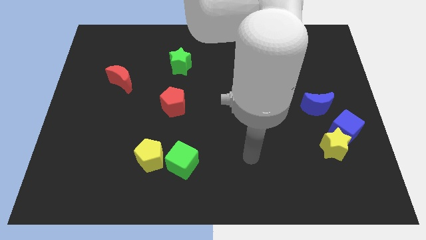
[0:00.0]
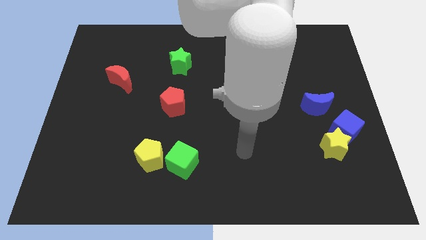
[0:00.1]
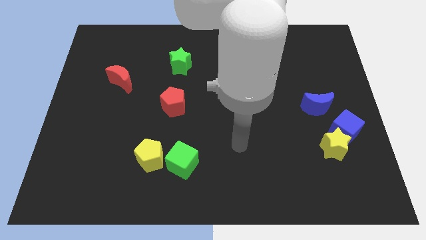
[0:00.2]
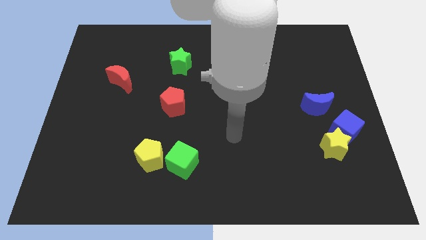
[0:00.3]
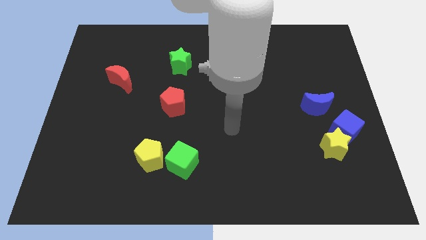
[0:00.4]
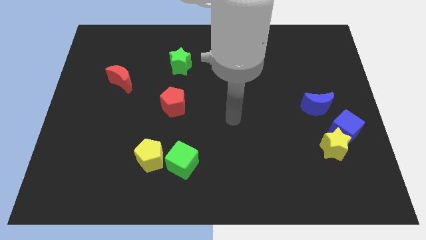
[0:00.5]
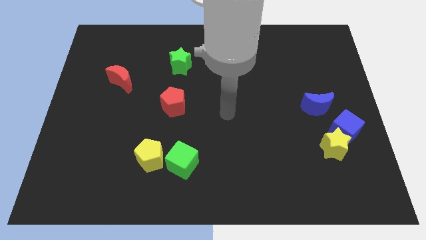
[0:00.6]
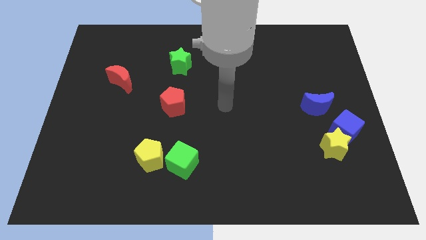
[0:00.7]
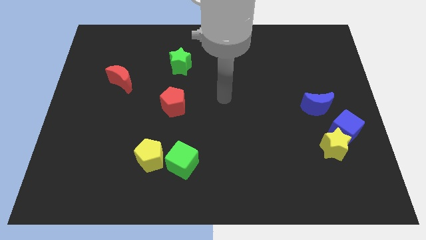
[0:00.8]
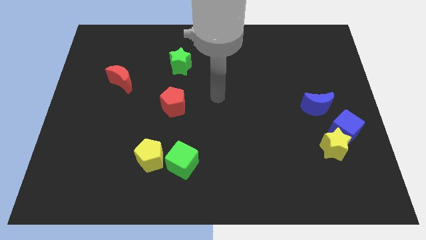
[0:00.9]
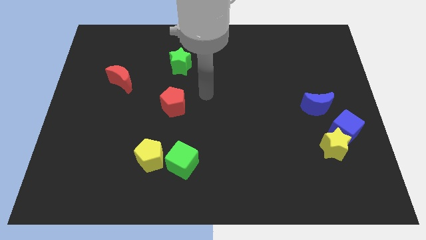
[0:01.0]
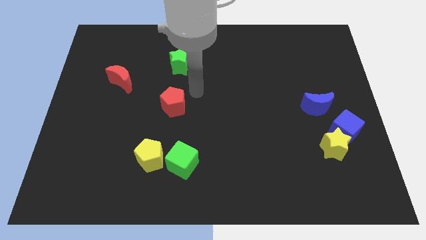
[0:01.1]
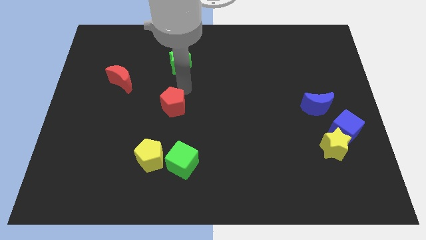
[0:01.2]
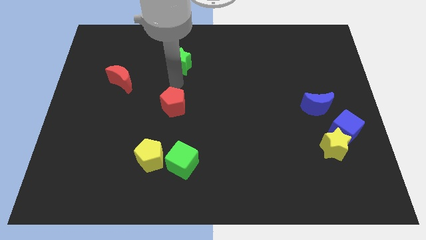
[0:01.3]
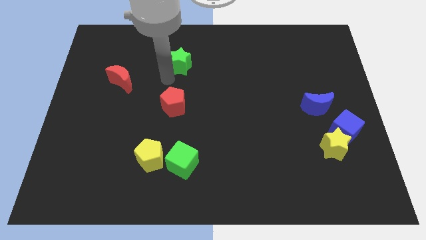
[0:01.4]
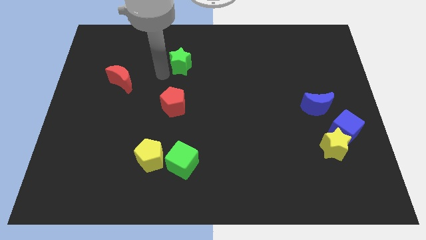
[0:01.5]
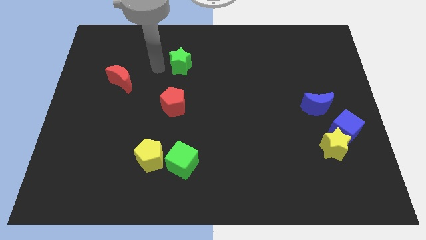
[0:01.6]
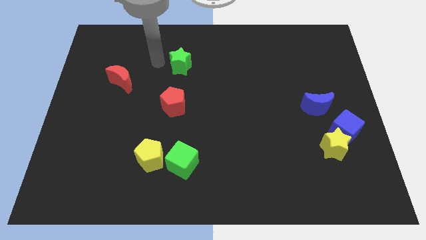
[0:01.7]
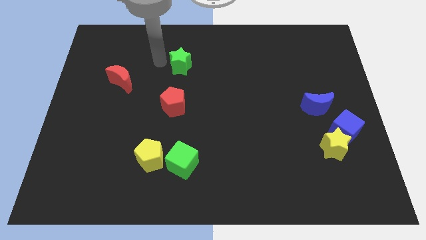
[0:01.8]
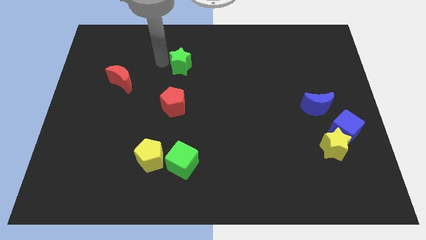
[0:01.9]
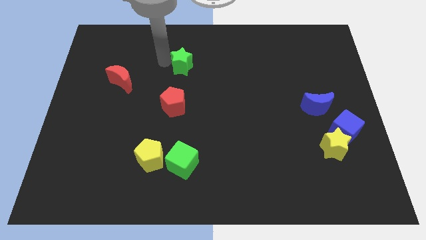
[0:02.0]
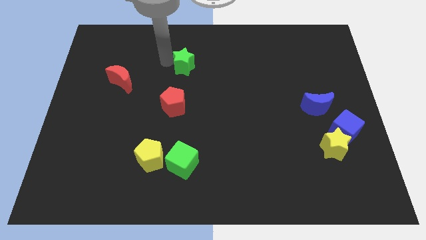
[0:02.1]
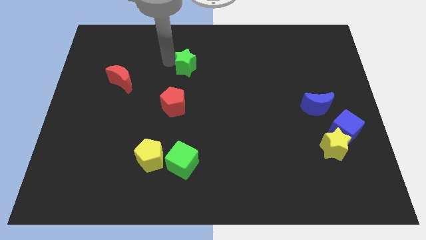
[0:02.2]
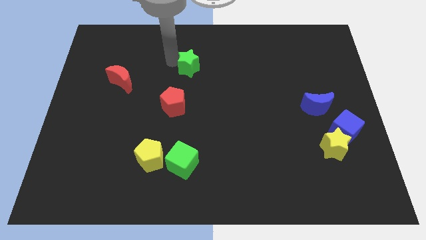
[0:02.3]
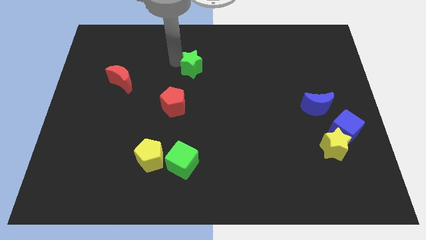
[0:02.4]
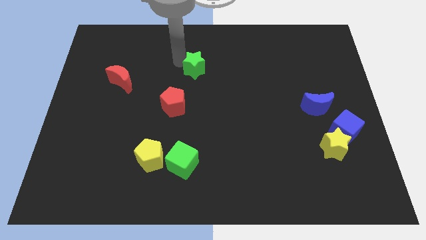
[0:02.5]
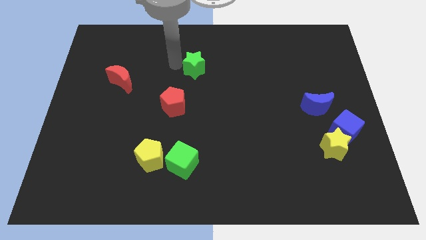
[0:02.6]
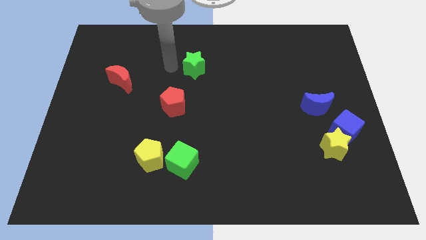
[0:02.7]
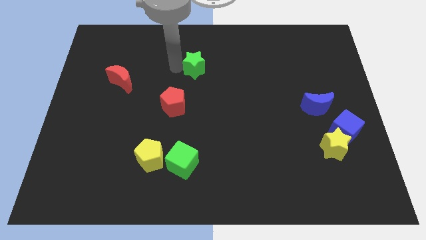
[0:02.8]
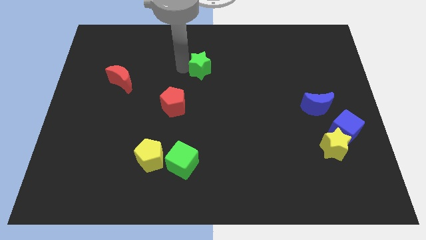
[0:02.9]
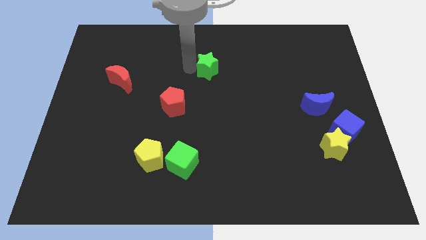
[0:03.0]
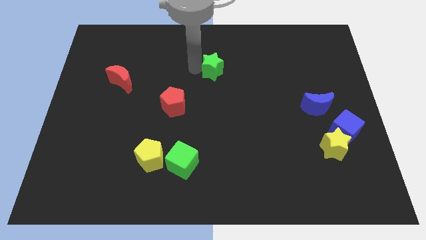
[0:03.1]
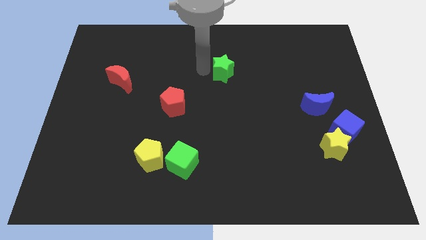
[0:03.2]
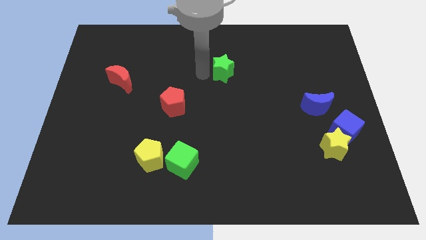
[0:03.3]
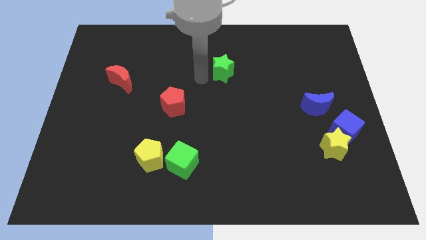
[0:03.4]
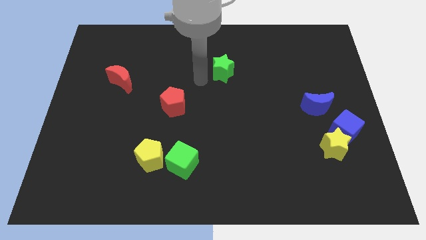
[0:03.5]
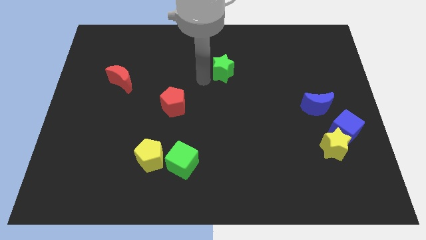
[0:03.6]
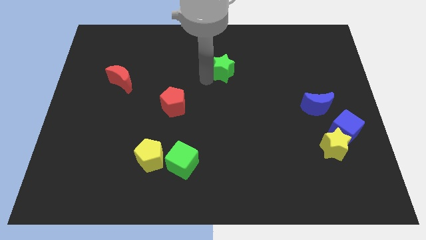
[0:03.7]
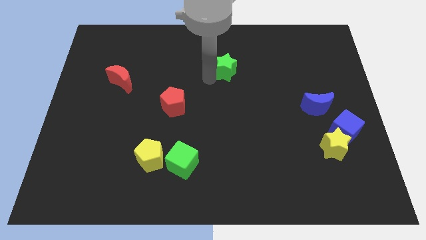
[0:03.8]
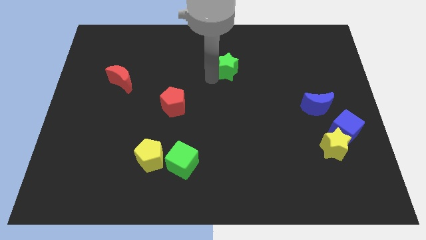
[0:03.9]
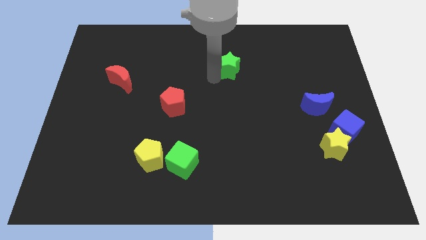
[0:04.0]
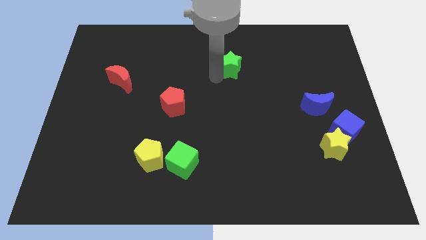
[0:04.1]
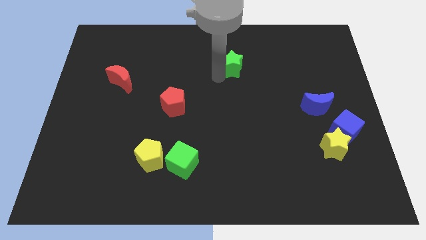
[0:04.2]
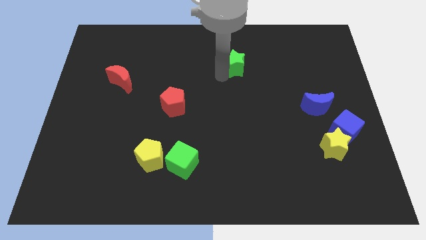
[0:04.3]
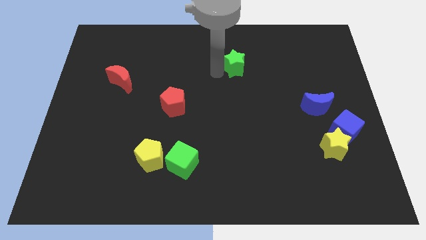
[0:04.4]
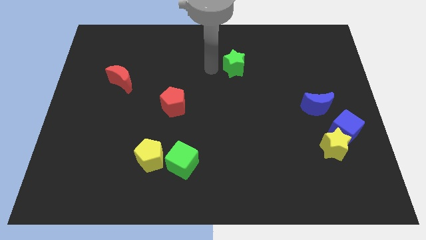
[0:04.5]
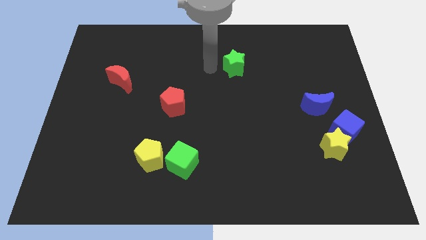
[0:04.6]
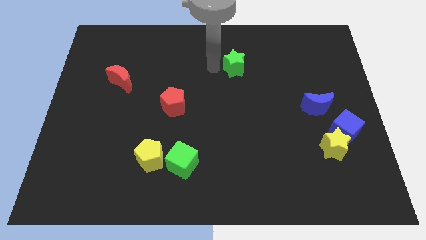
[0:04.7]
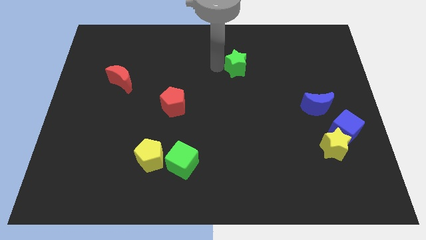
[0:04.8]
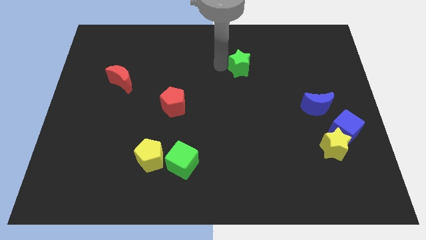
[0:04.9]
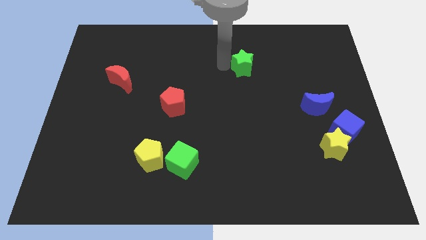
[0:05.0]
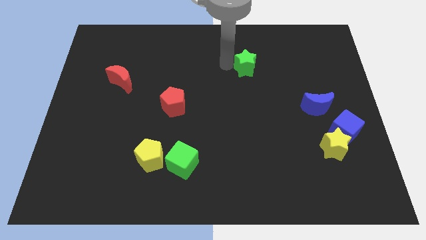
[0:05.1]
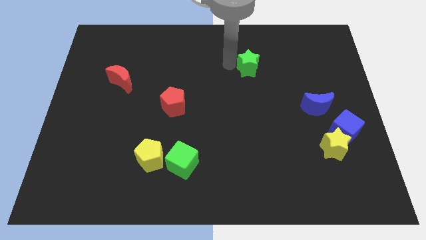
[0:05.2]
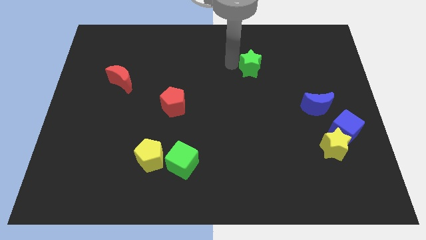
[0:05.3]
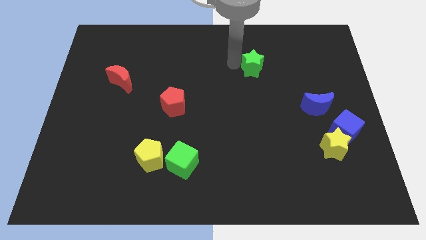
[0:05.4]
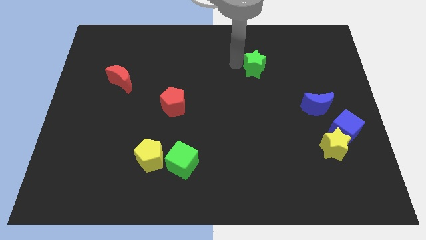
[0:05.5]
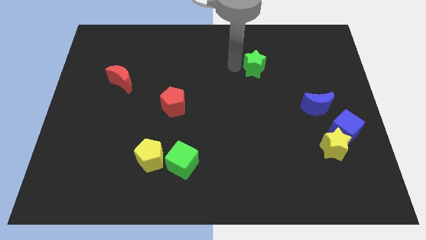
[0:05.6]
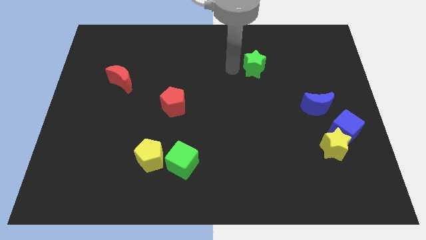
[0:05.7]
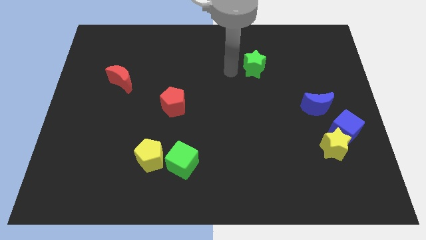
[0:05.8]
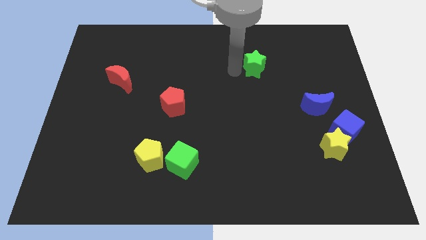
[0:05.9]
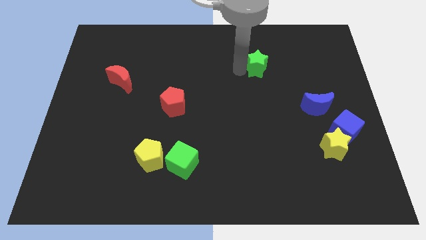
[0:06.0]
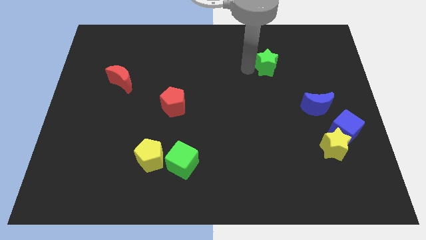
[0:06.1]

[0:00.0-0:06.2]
move the green star right

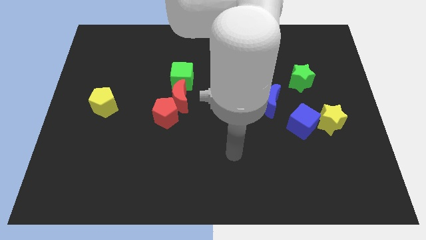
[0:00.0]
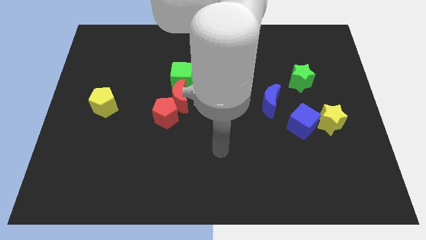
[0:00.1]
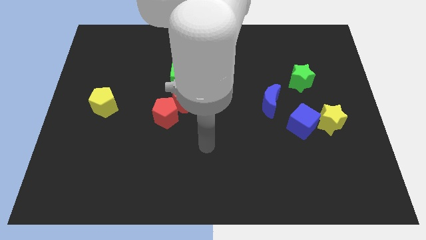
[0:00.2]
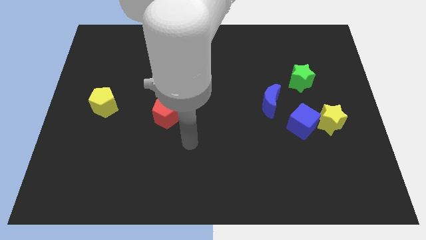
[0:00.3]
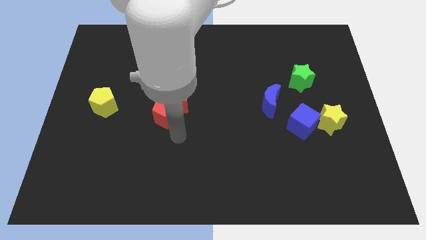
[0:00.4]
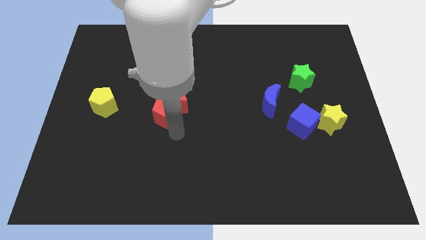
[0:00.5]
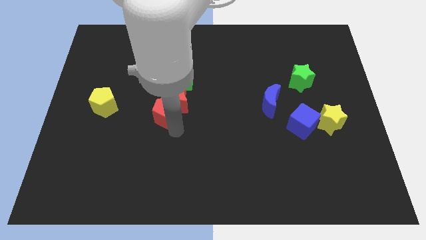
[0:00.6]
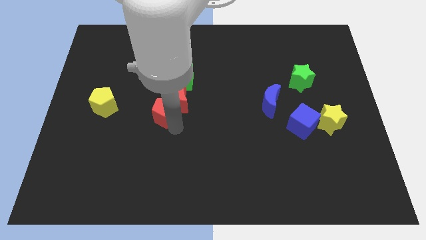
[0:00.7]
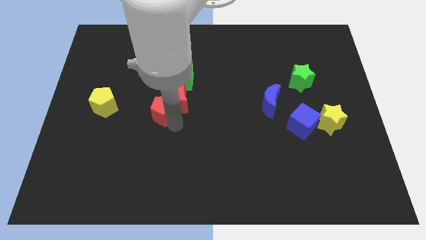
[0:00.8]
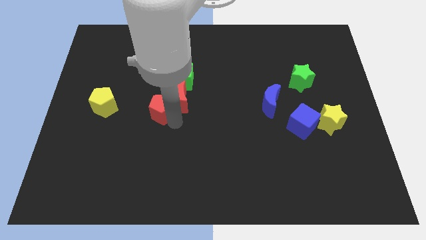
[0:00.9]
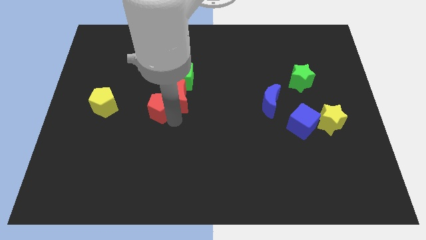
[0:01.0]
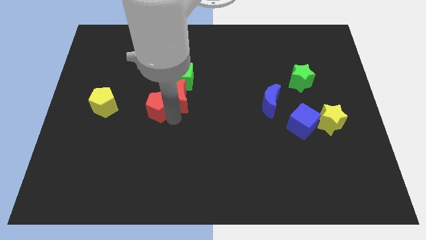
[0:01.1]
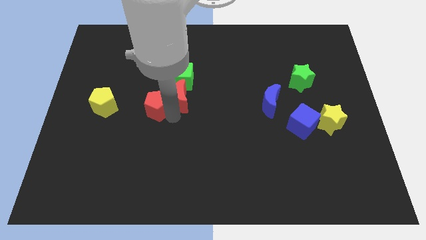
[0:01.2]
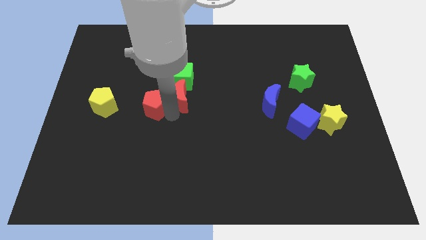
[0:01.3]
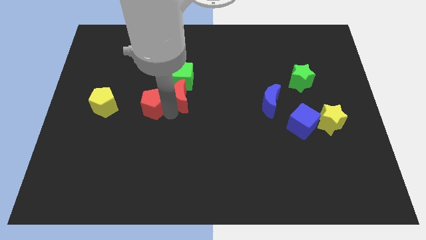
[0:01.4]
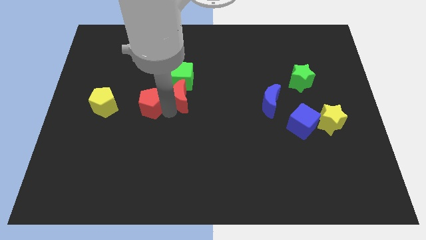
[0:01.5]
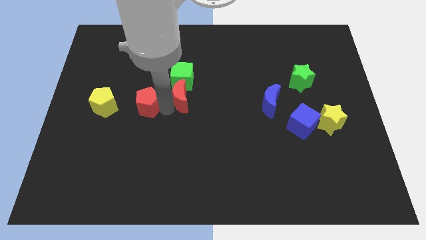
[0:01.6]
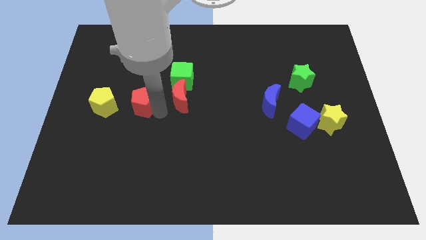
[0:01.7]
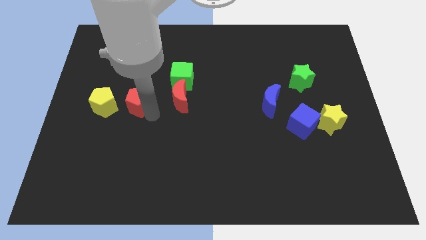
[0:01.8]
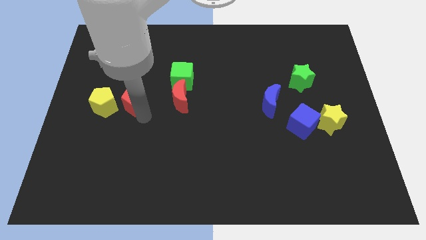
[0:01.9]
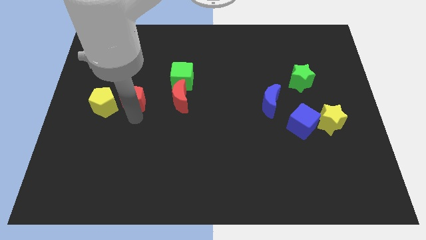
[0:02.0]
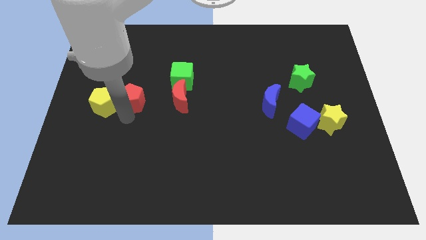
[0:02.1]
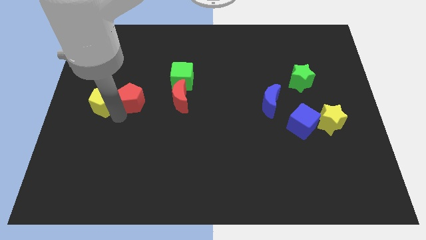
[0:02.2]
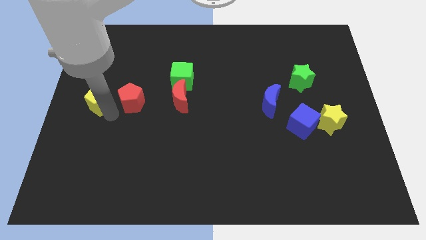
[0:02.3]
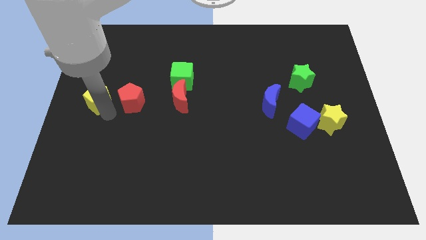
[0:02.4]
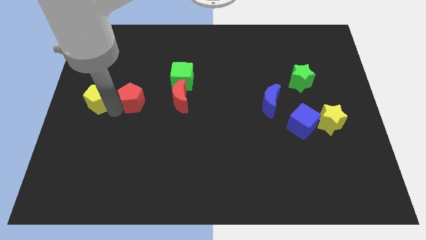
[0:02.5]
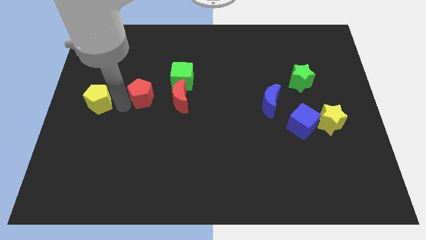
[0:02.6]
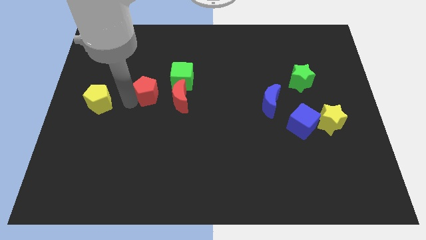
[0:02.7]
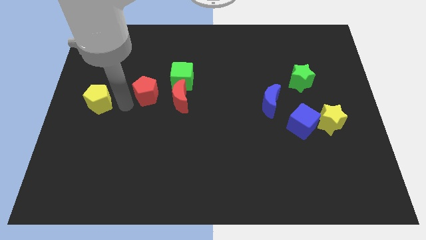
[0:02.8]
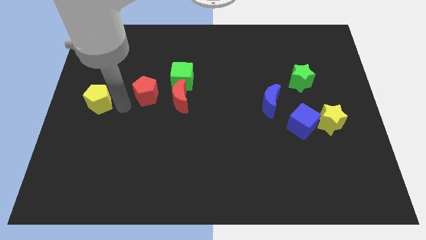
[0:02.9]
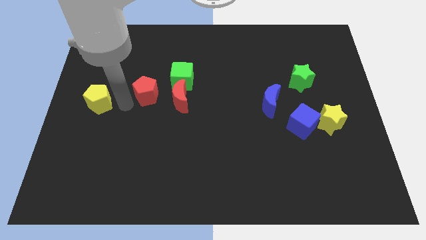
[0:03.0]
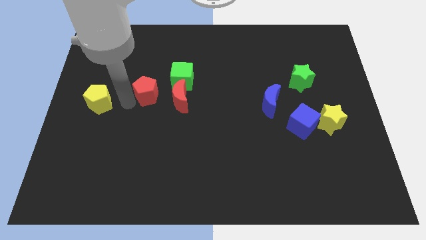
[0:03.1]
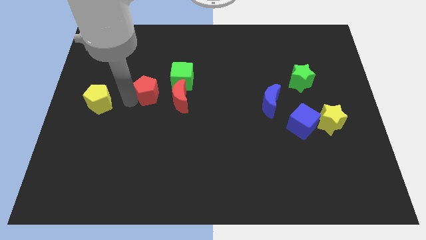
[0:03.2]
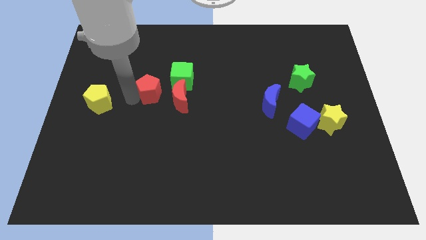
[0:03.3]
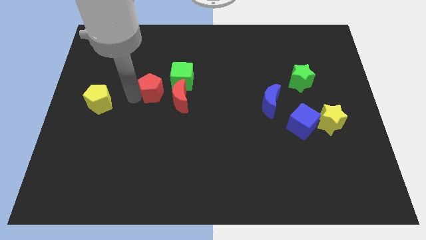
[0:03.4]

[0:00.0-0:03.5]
slide the red pentagon upwards a little
